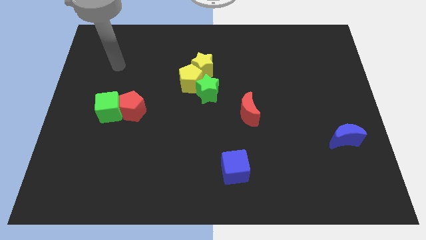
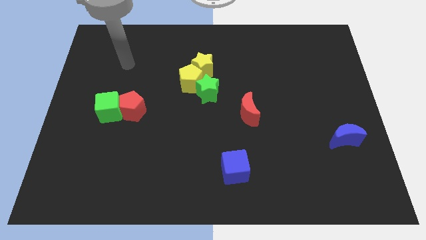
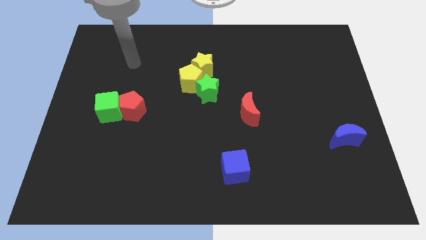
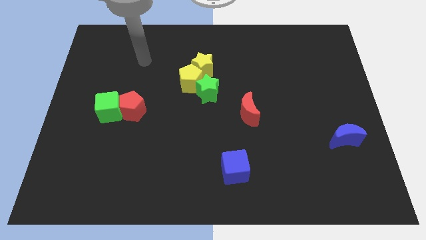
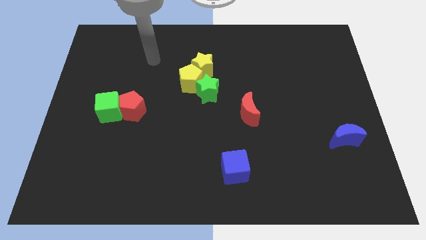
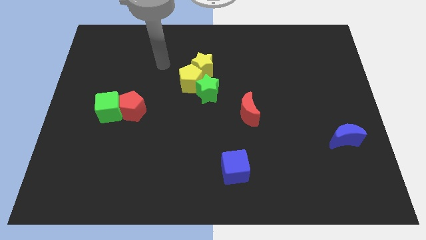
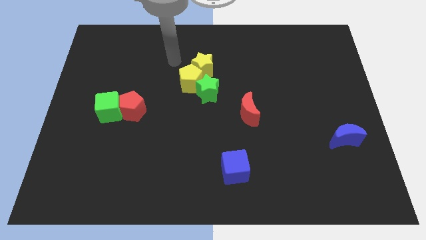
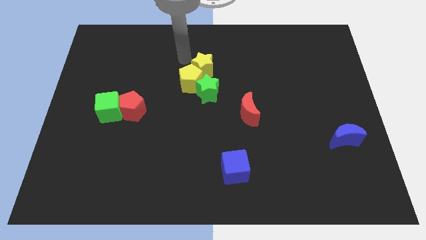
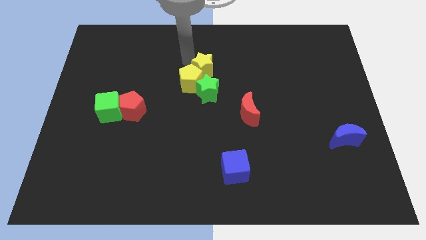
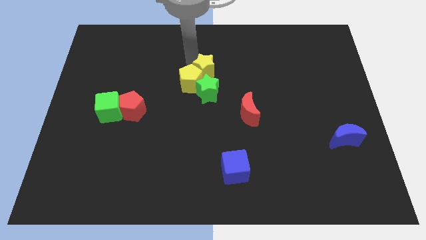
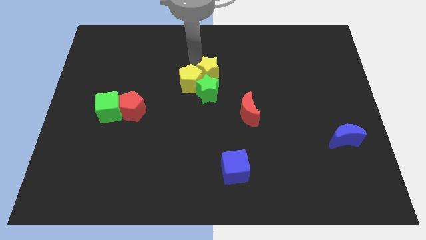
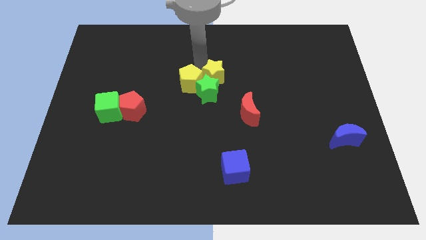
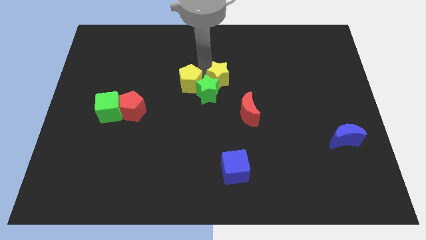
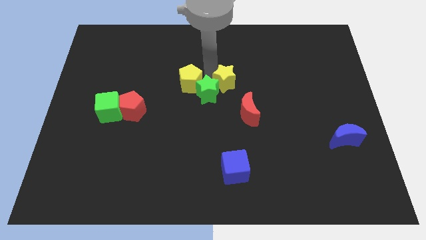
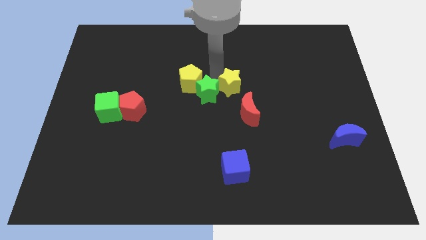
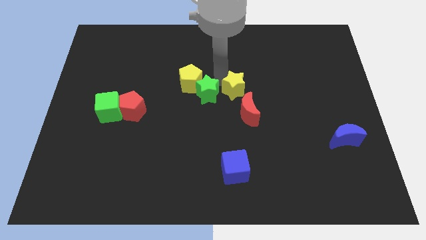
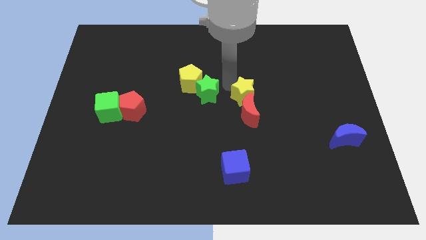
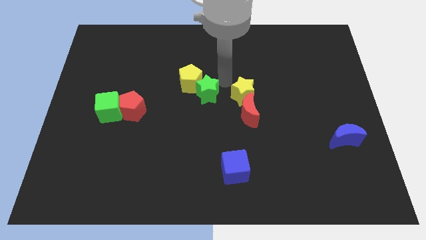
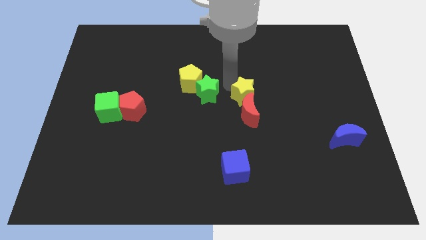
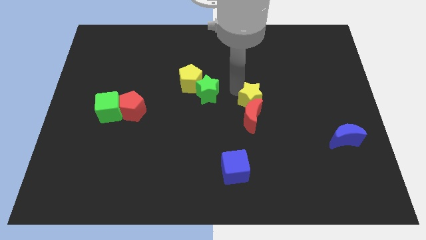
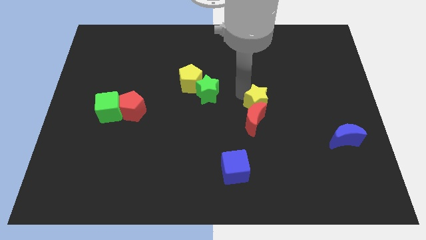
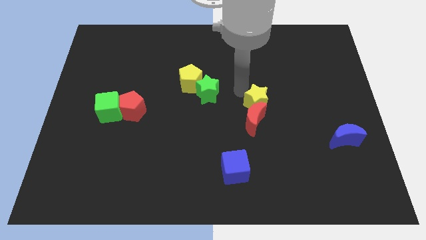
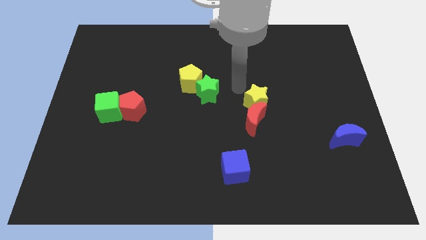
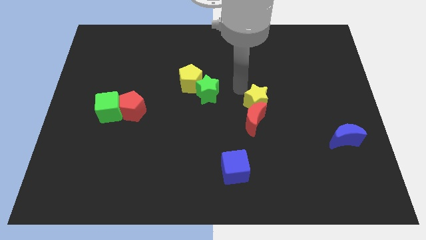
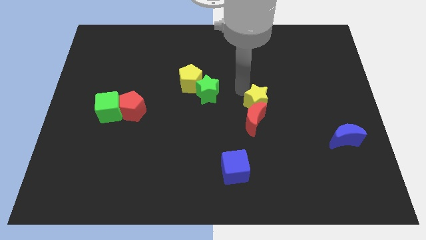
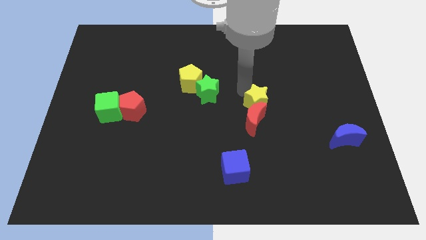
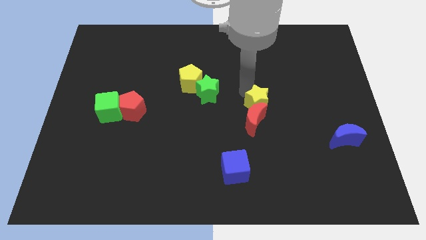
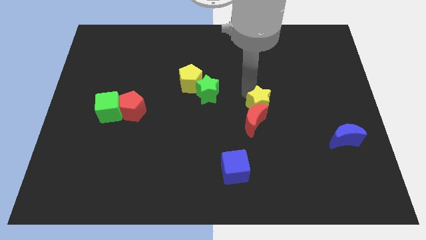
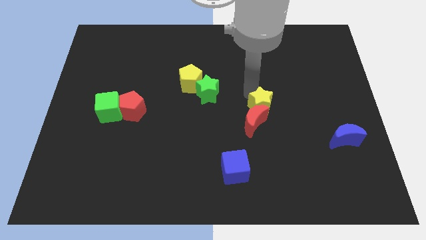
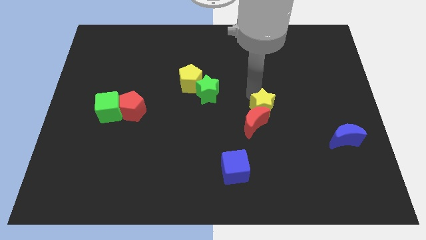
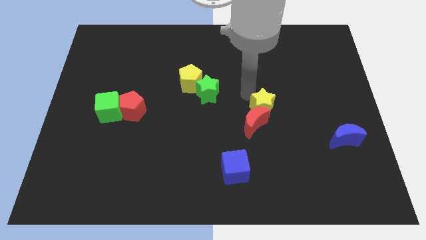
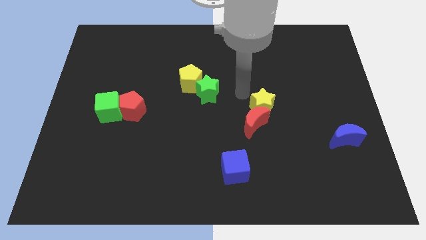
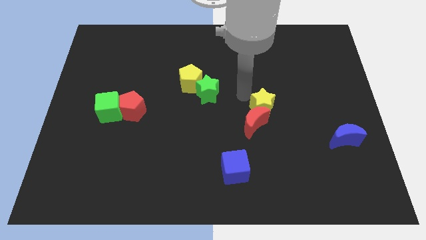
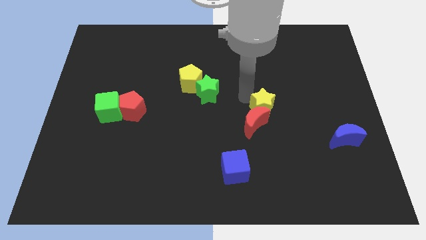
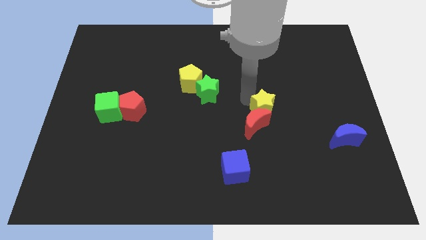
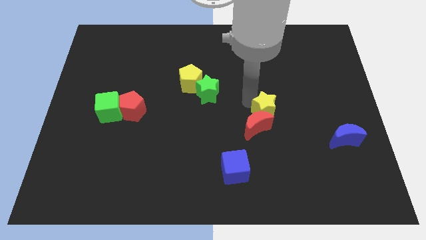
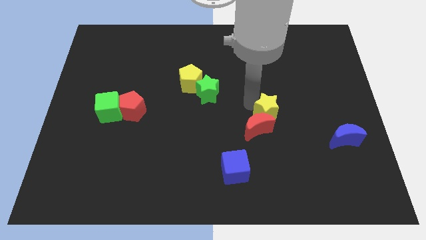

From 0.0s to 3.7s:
move the yellow star downwards and to the right

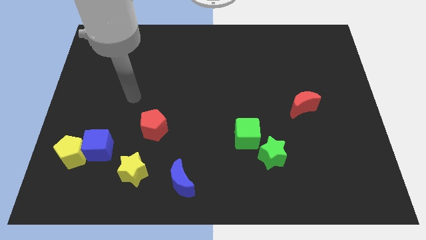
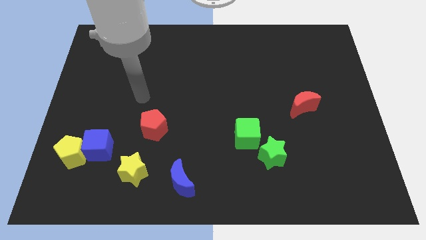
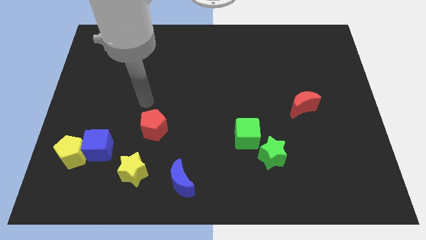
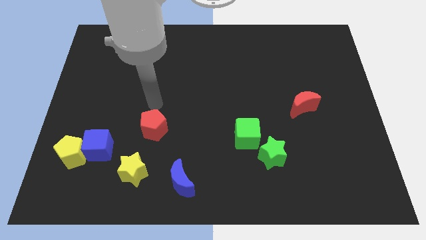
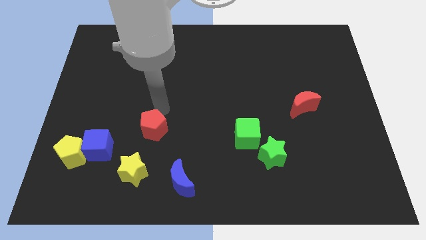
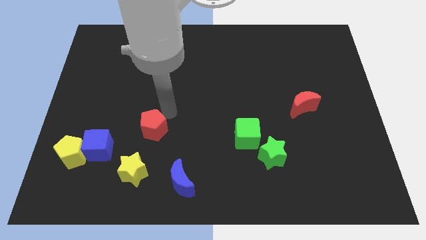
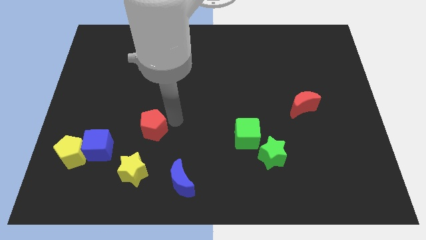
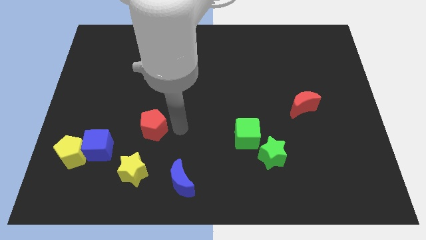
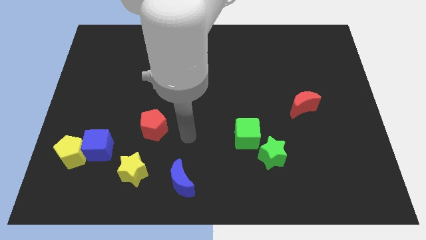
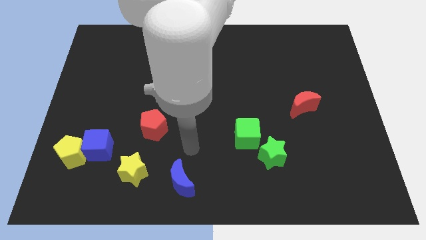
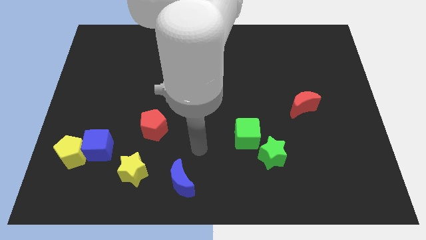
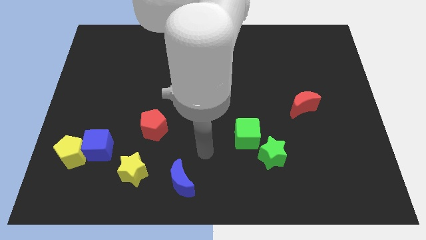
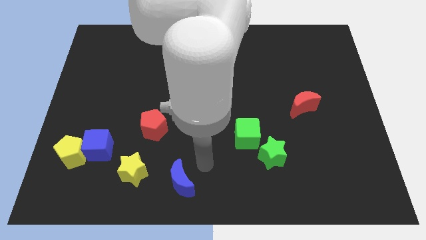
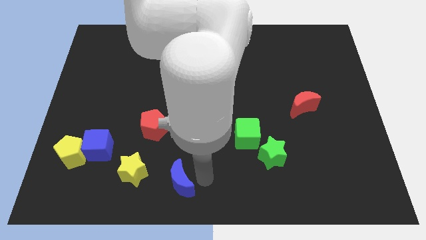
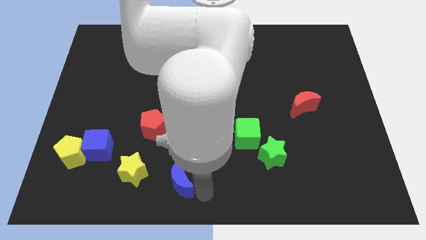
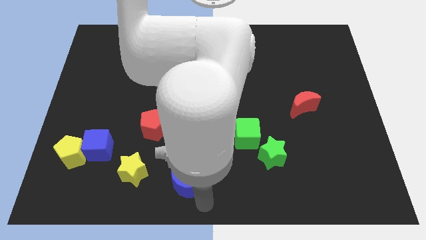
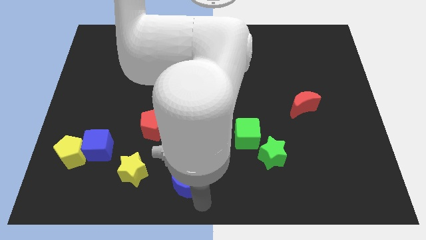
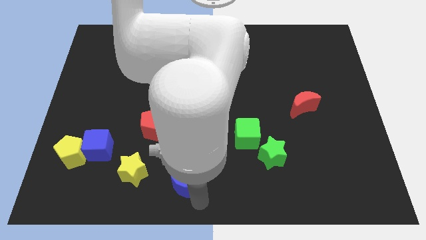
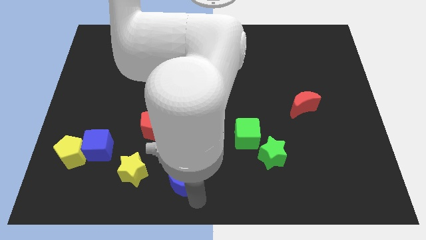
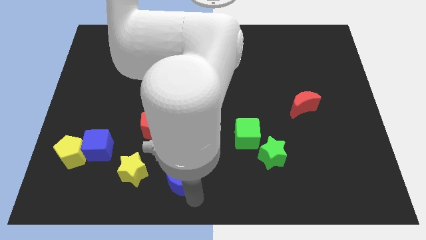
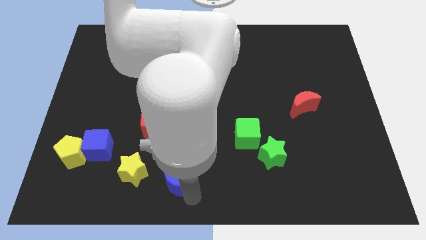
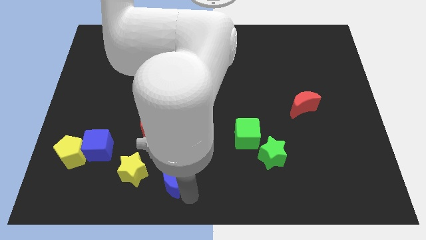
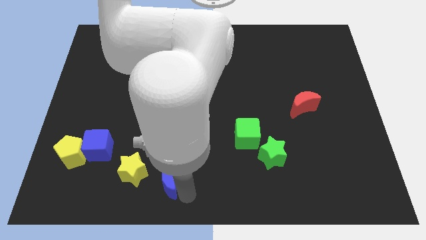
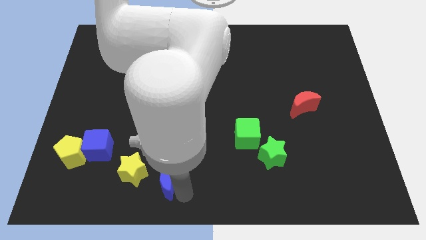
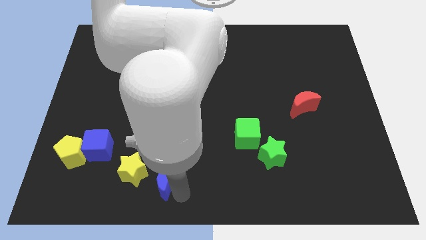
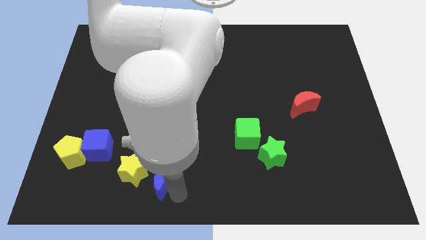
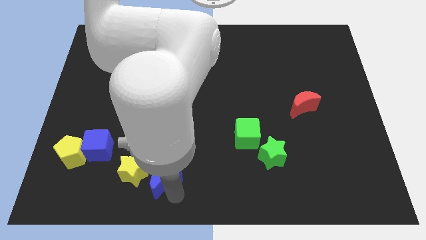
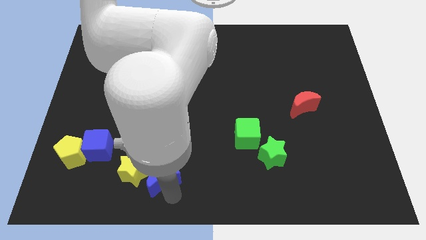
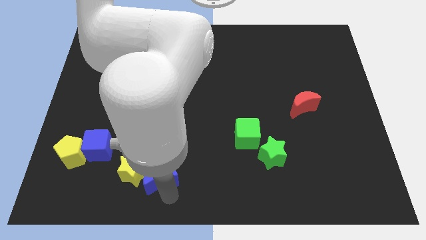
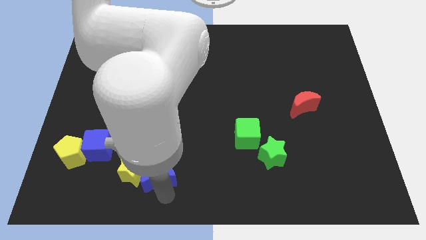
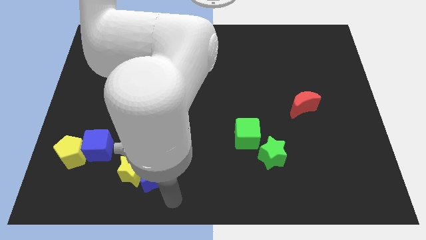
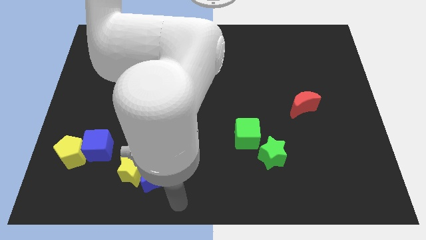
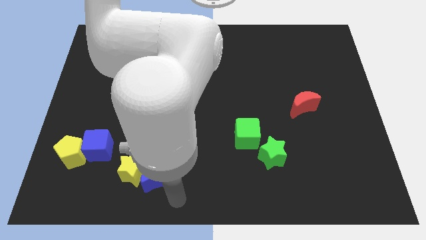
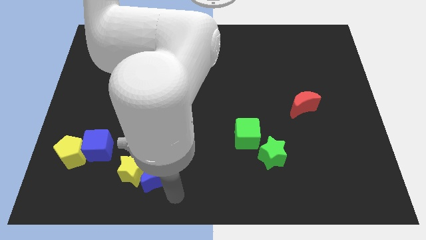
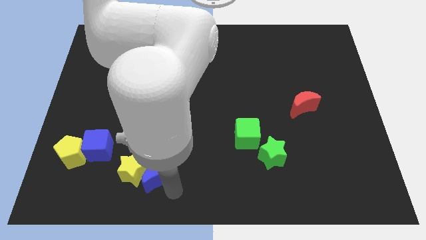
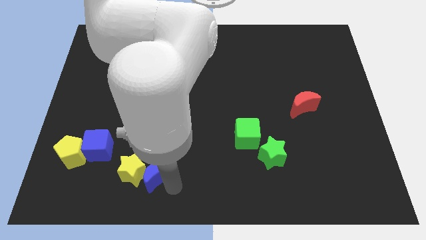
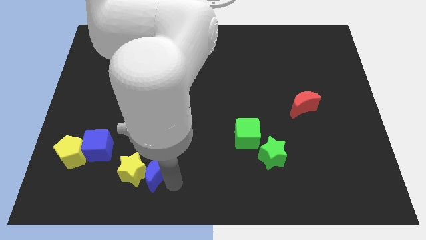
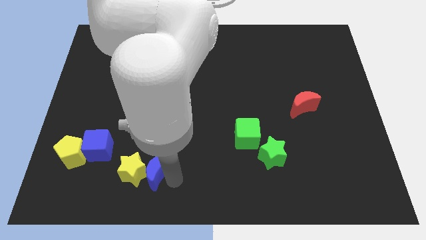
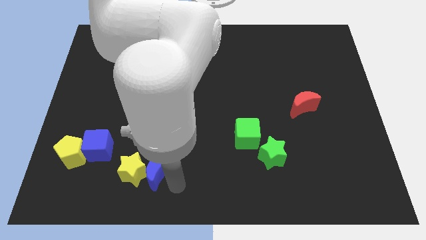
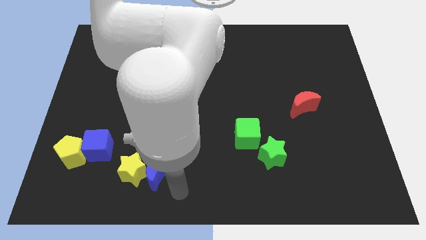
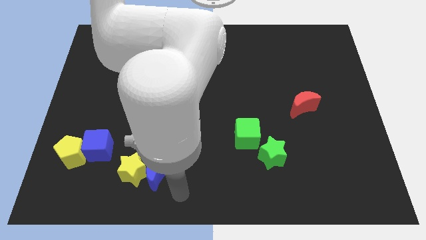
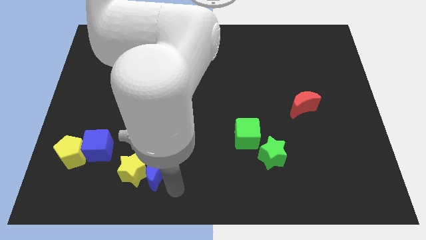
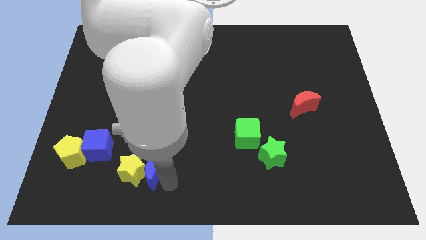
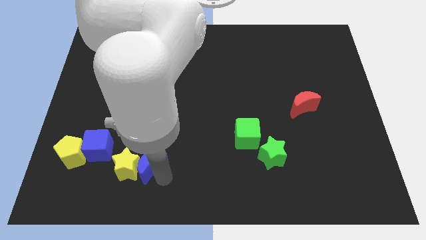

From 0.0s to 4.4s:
move the blue moon somewhat upwards and then left
